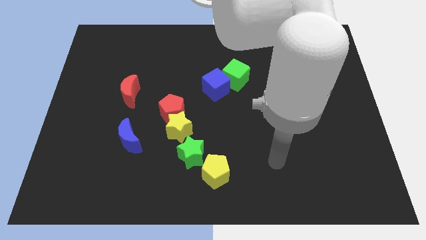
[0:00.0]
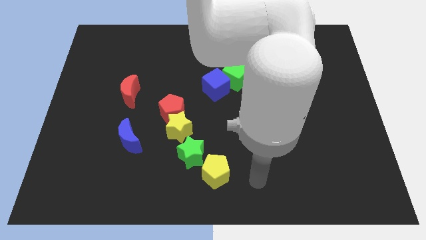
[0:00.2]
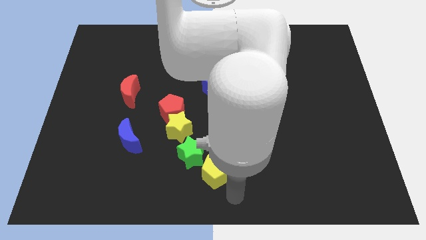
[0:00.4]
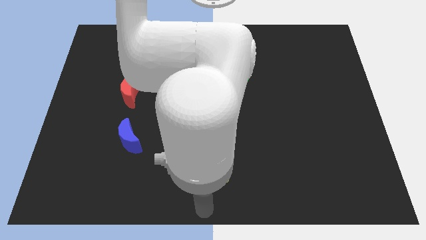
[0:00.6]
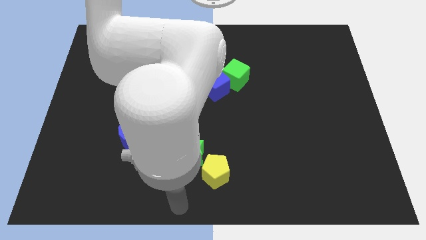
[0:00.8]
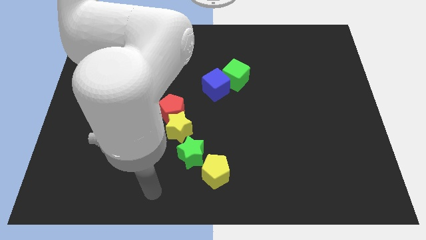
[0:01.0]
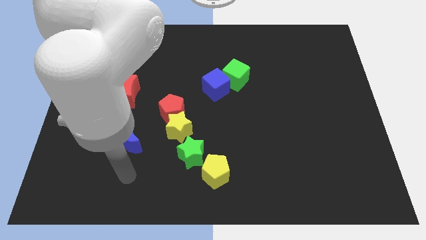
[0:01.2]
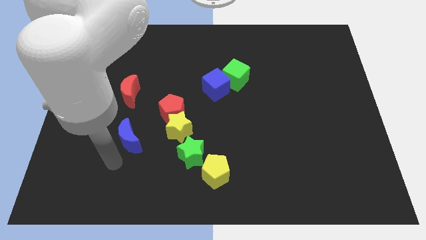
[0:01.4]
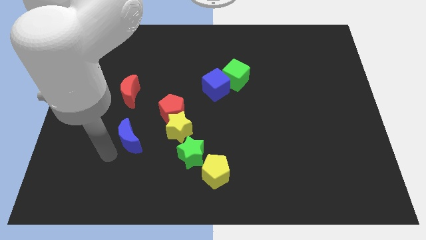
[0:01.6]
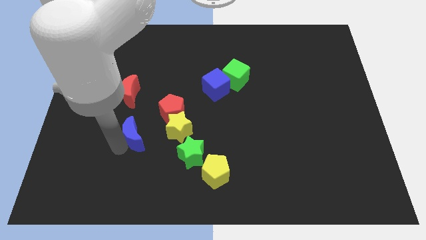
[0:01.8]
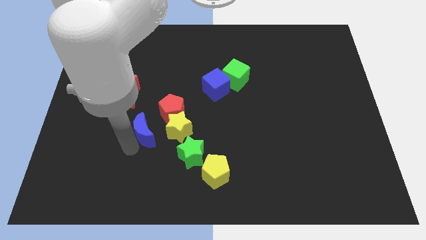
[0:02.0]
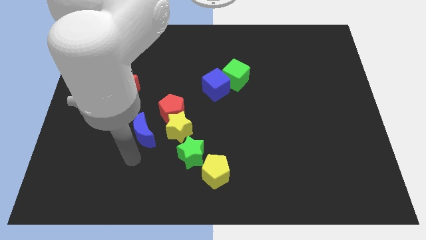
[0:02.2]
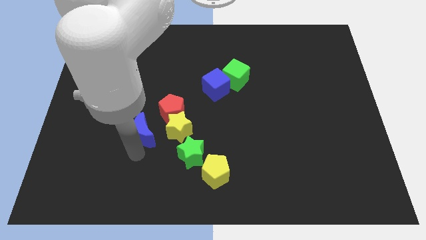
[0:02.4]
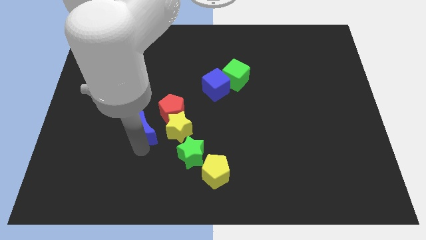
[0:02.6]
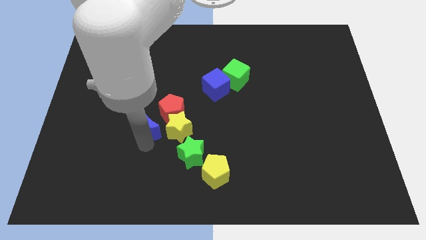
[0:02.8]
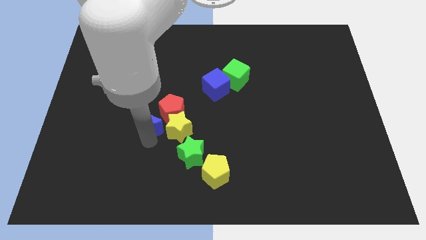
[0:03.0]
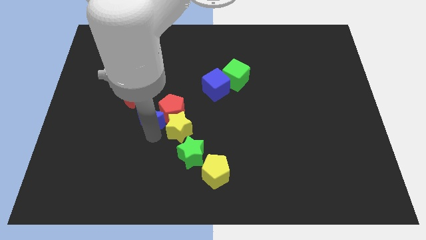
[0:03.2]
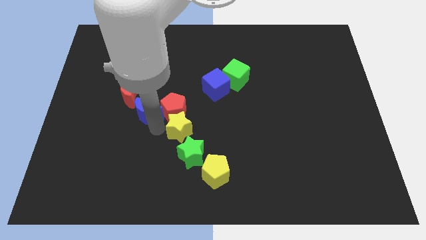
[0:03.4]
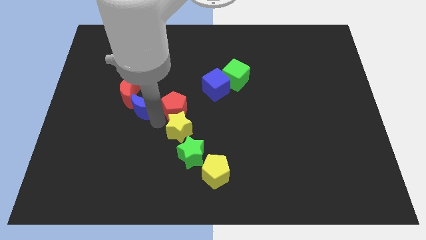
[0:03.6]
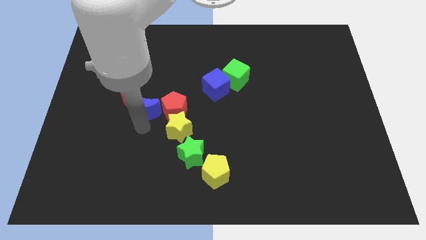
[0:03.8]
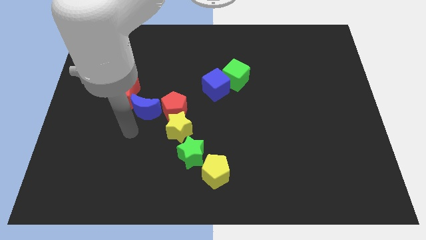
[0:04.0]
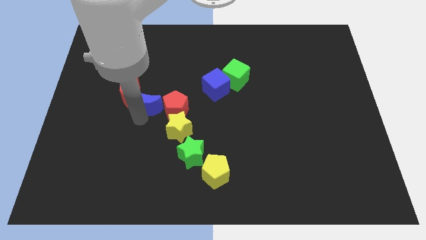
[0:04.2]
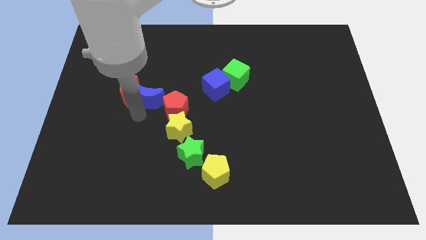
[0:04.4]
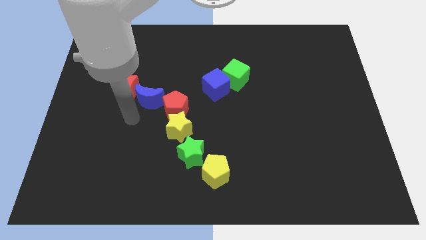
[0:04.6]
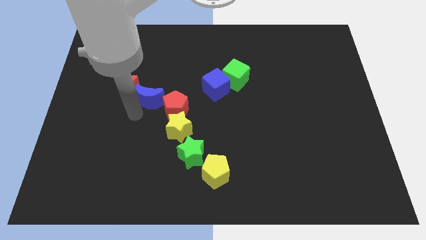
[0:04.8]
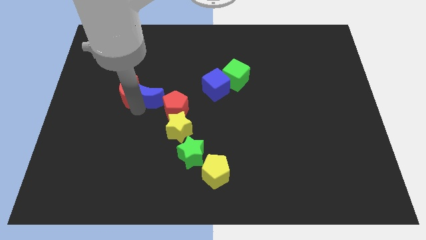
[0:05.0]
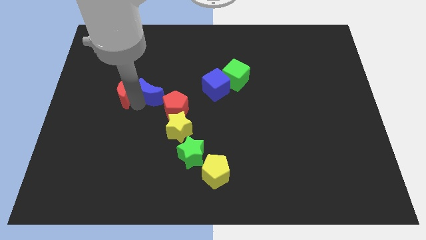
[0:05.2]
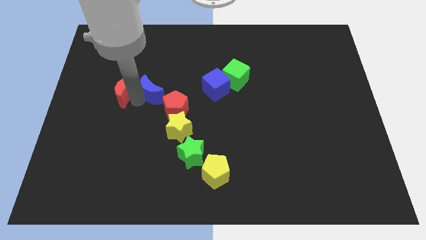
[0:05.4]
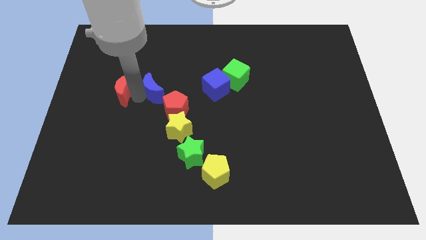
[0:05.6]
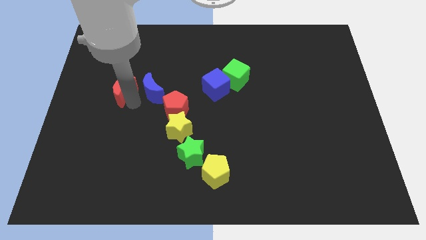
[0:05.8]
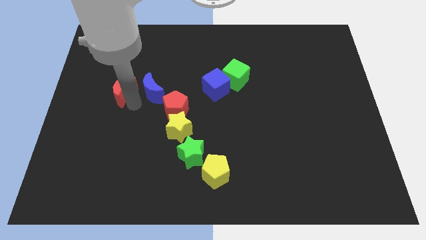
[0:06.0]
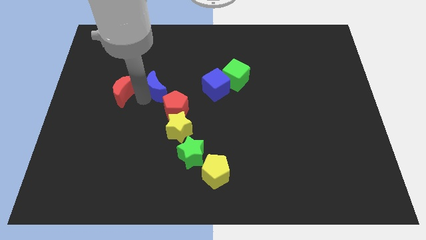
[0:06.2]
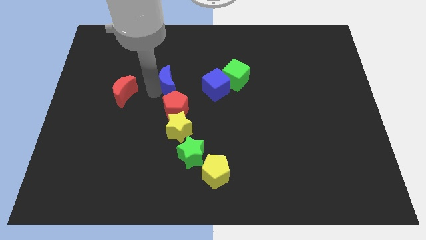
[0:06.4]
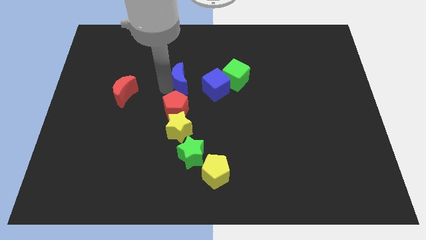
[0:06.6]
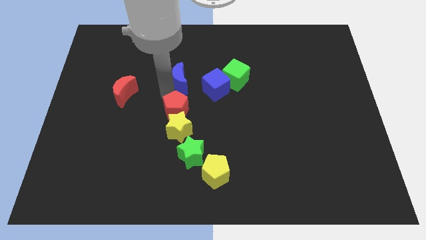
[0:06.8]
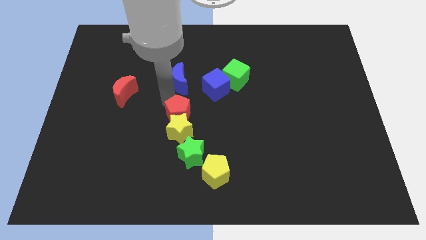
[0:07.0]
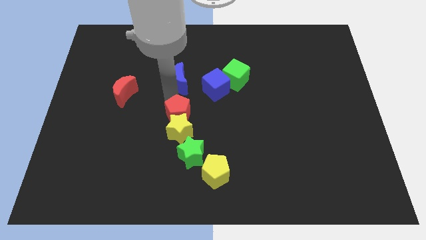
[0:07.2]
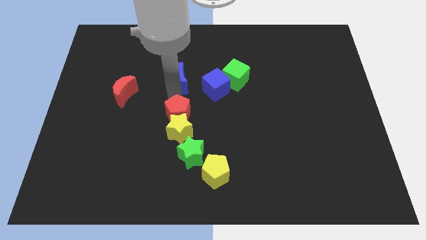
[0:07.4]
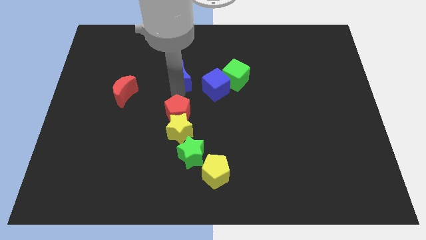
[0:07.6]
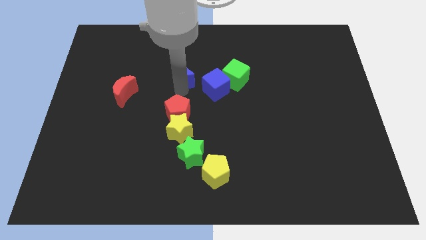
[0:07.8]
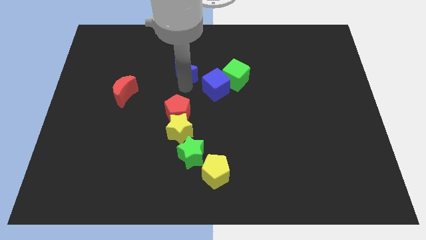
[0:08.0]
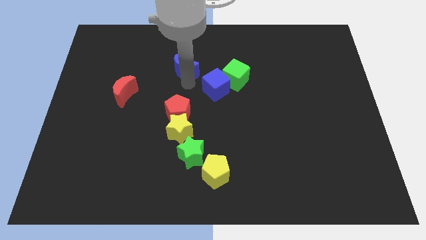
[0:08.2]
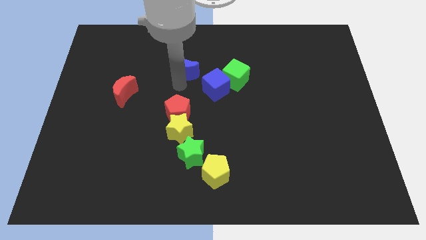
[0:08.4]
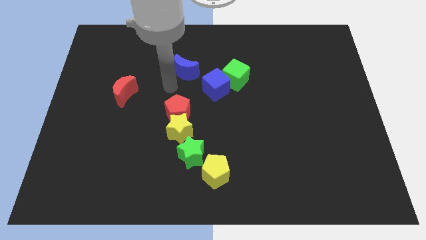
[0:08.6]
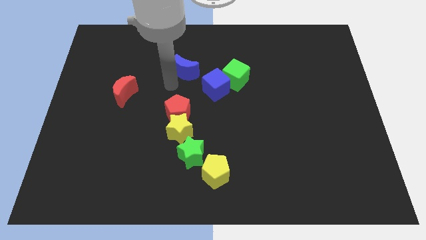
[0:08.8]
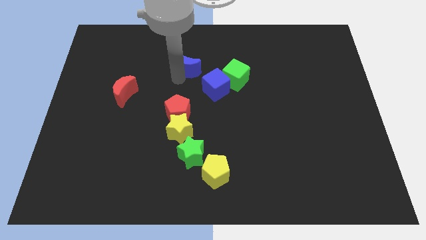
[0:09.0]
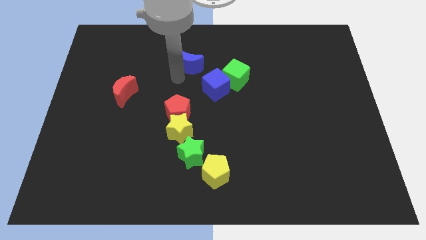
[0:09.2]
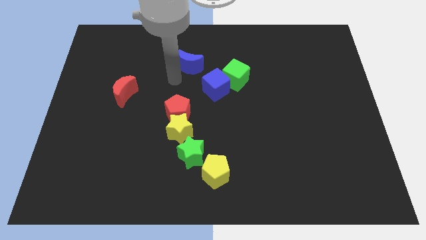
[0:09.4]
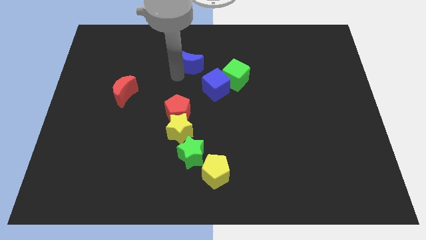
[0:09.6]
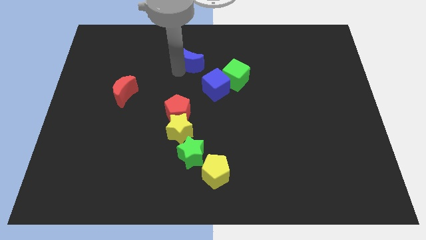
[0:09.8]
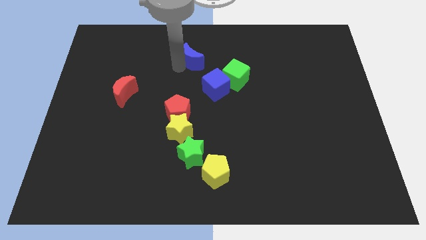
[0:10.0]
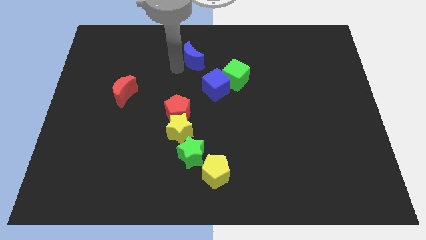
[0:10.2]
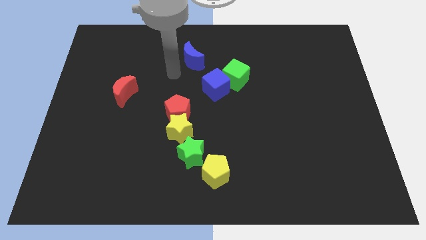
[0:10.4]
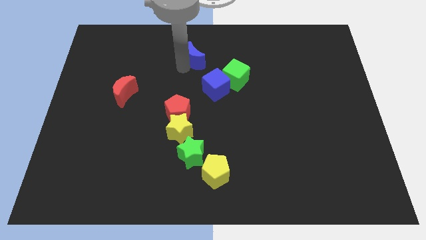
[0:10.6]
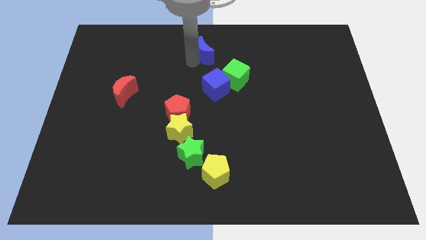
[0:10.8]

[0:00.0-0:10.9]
slide the blue moon to the top side

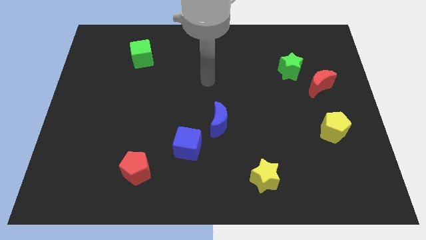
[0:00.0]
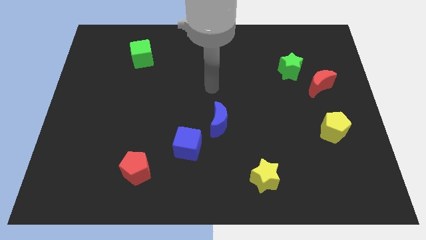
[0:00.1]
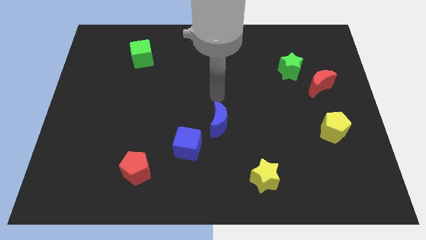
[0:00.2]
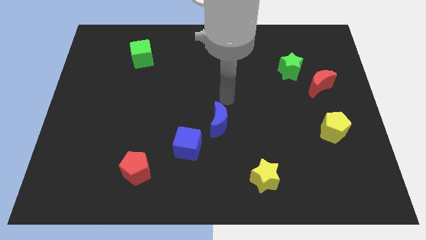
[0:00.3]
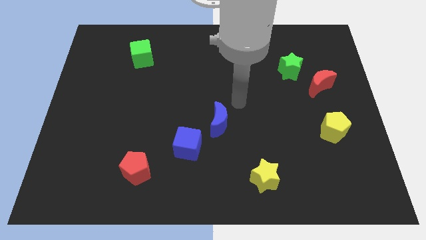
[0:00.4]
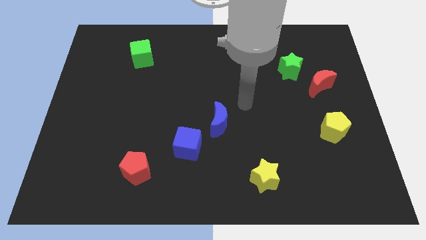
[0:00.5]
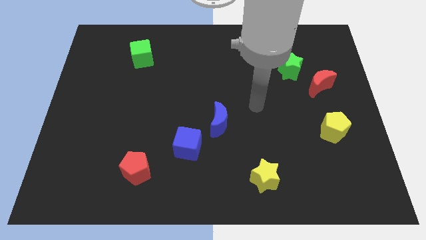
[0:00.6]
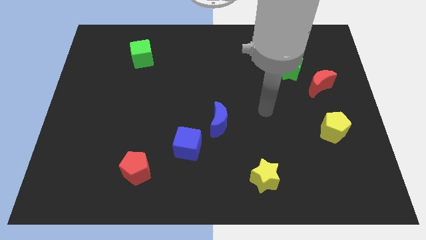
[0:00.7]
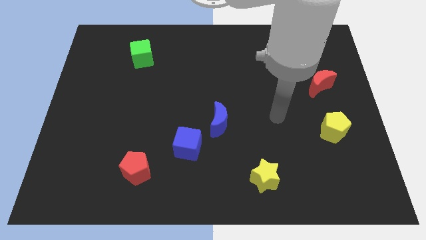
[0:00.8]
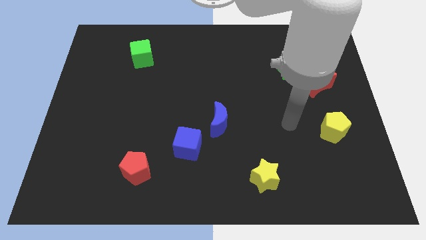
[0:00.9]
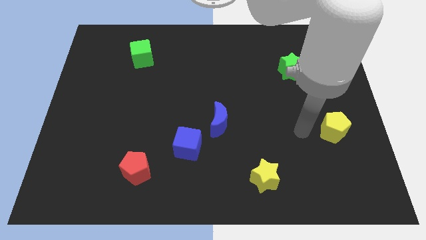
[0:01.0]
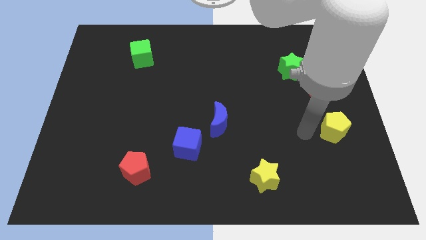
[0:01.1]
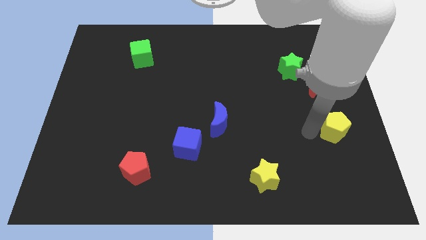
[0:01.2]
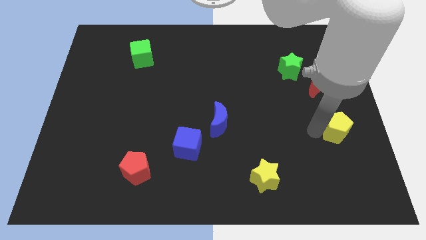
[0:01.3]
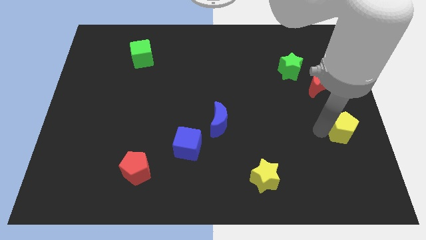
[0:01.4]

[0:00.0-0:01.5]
slide the yellow pentagon to the center right
